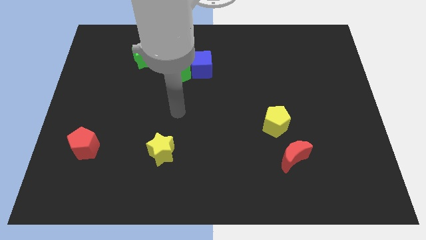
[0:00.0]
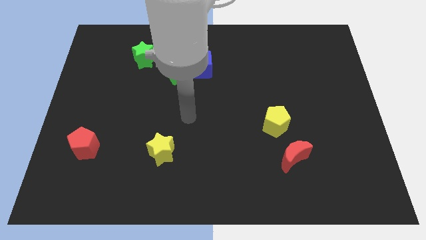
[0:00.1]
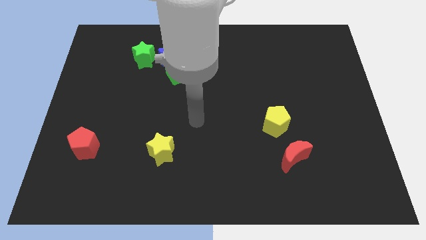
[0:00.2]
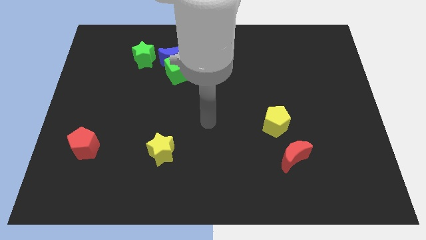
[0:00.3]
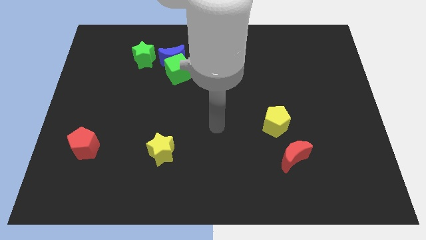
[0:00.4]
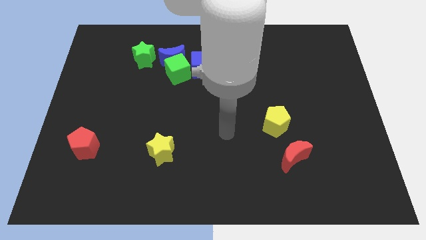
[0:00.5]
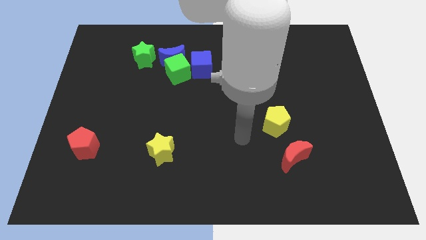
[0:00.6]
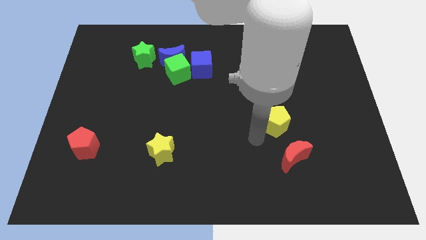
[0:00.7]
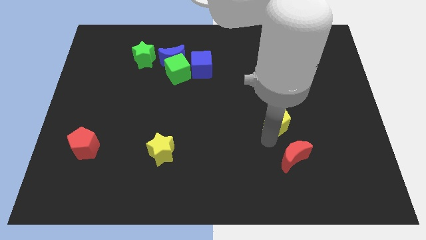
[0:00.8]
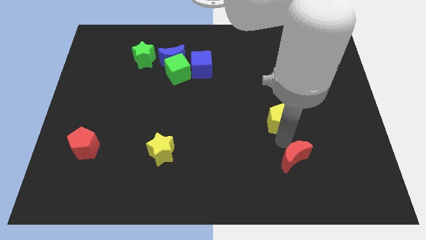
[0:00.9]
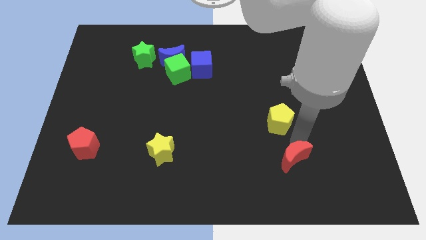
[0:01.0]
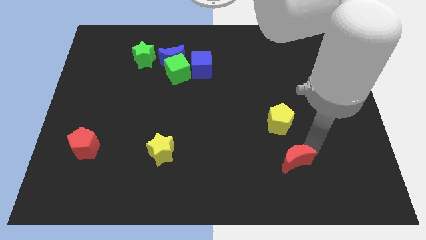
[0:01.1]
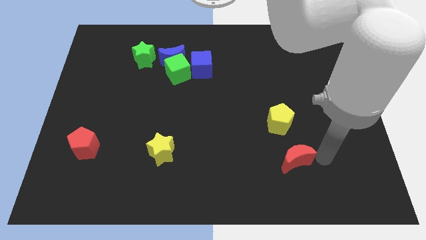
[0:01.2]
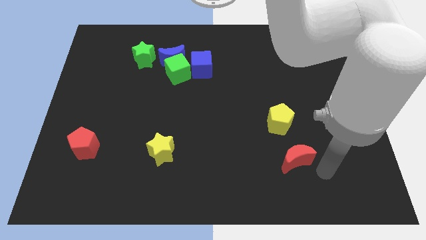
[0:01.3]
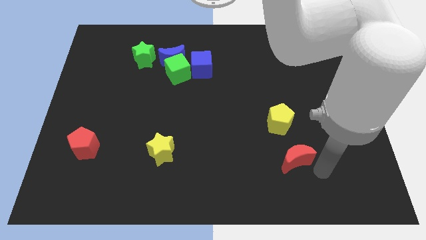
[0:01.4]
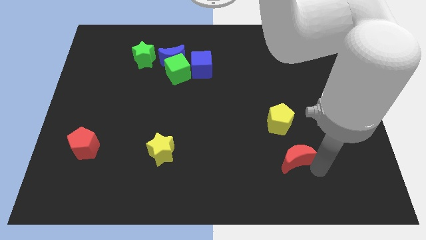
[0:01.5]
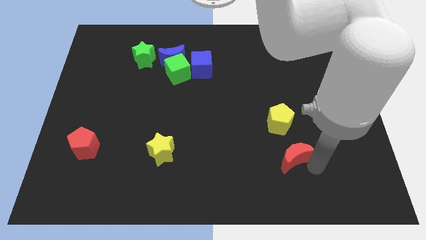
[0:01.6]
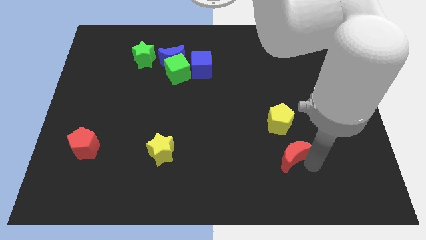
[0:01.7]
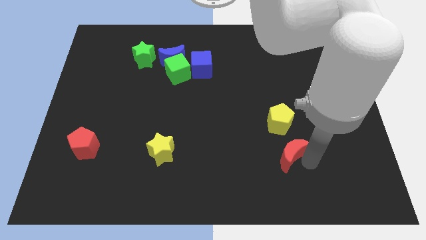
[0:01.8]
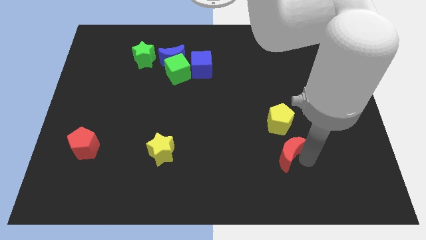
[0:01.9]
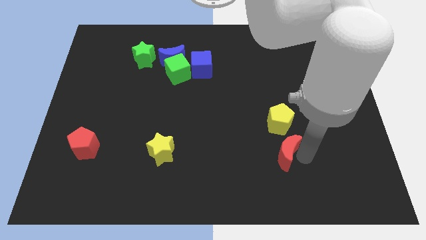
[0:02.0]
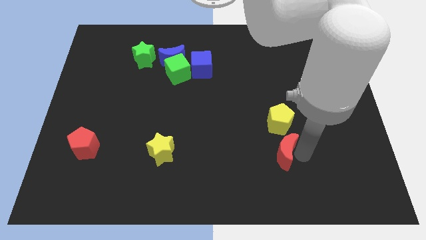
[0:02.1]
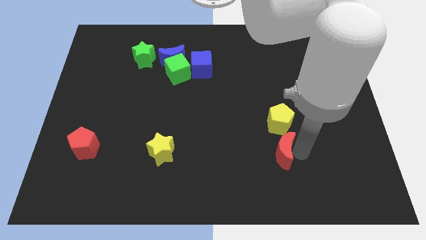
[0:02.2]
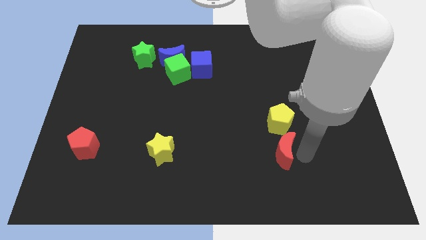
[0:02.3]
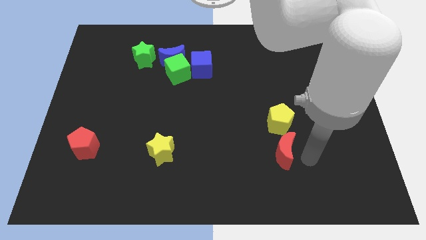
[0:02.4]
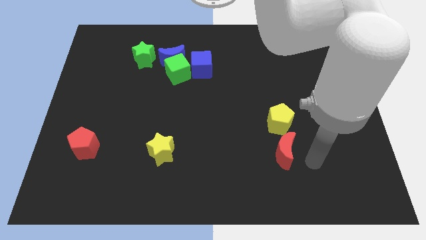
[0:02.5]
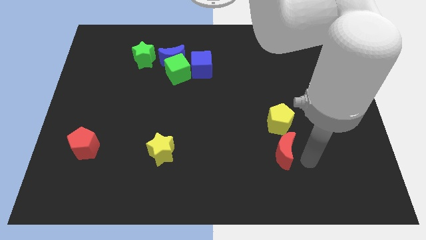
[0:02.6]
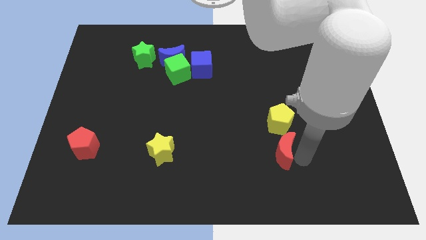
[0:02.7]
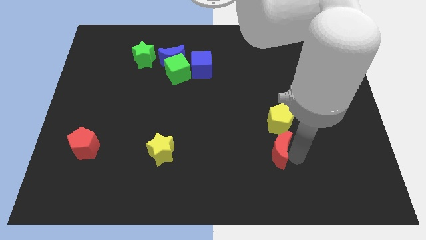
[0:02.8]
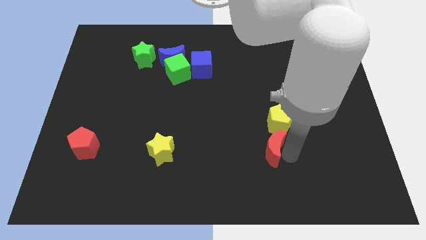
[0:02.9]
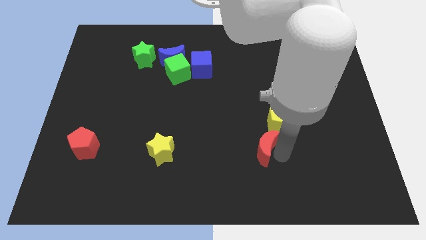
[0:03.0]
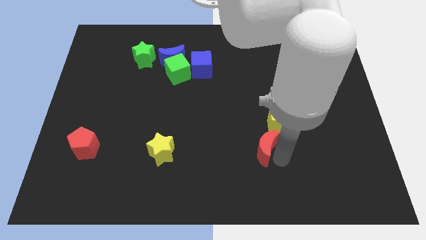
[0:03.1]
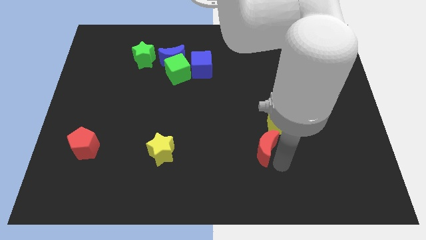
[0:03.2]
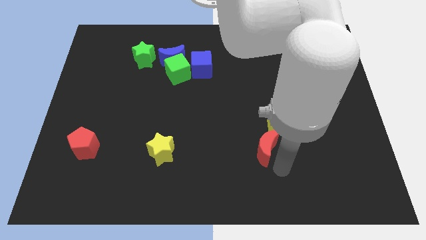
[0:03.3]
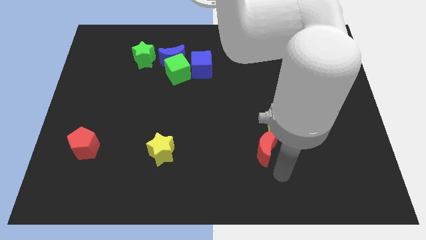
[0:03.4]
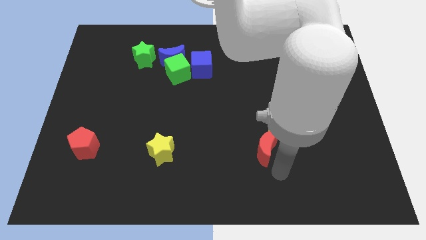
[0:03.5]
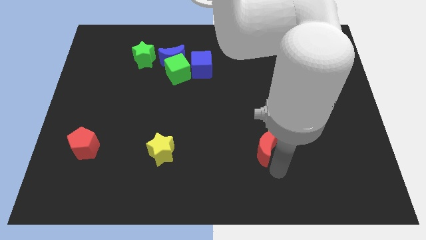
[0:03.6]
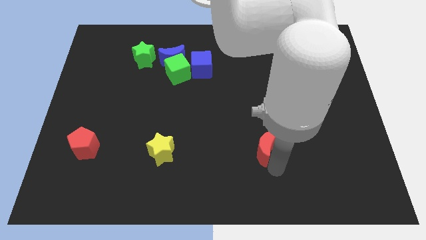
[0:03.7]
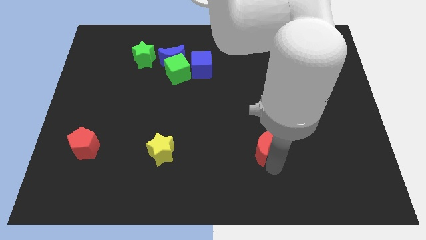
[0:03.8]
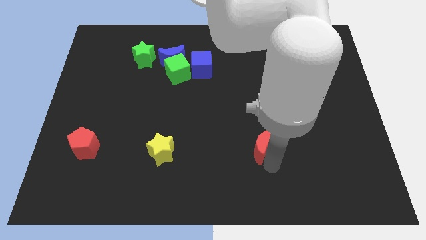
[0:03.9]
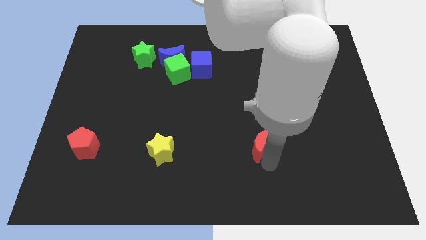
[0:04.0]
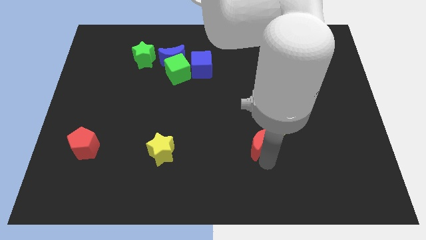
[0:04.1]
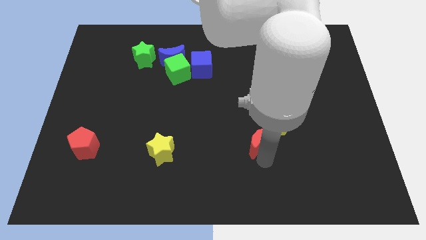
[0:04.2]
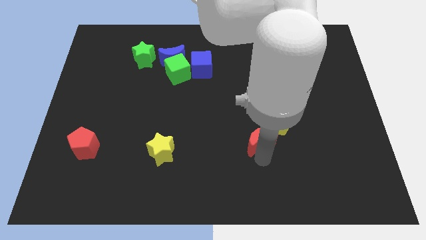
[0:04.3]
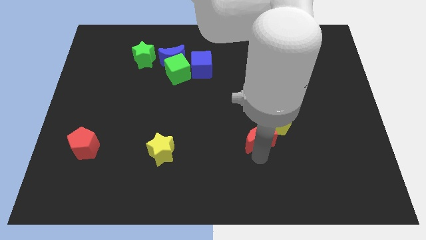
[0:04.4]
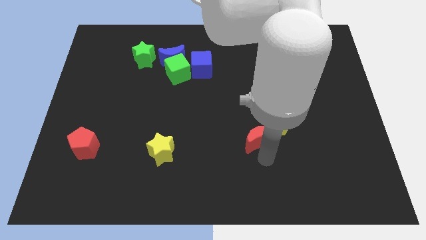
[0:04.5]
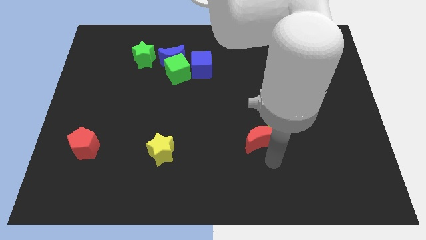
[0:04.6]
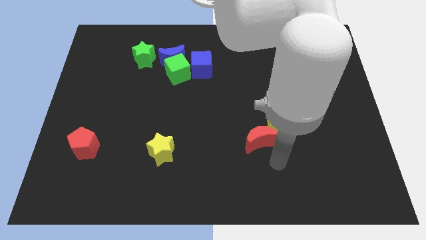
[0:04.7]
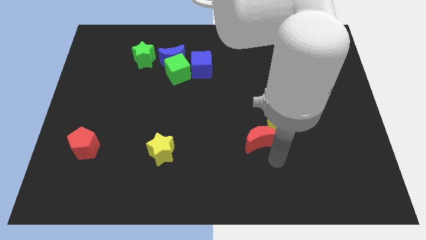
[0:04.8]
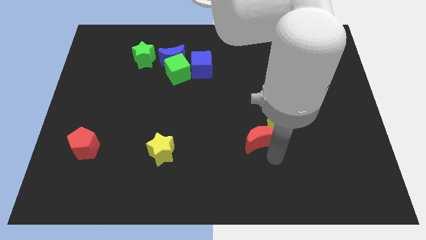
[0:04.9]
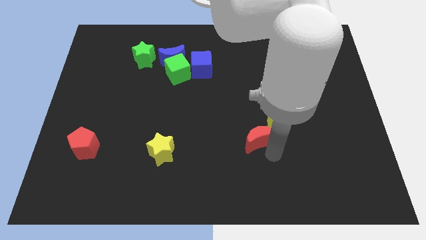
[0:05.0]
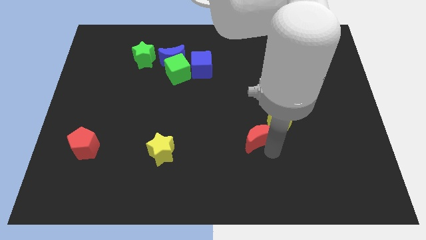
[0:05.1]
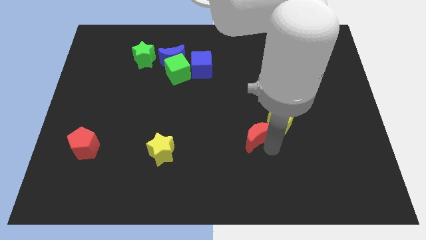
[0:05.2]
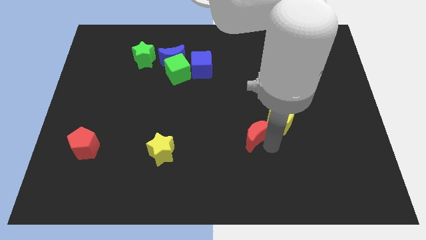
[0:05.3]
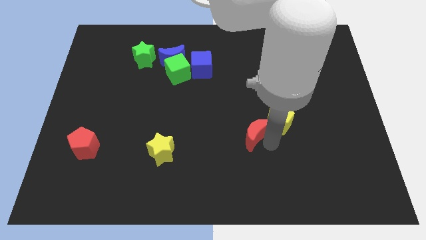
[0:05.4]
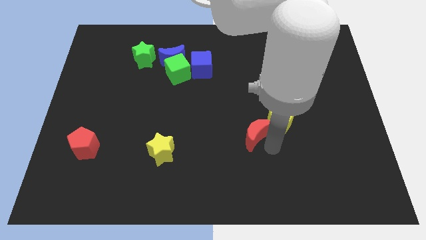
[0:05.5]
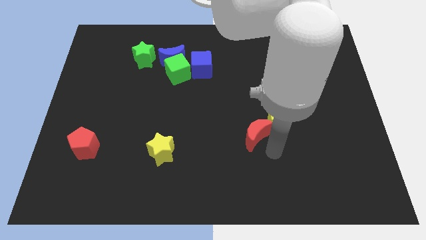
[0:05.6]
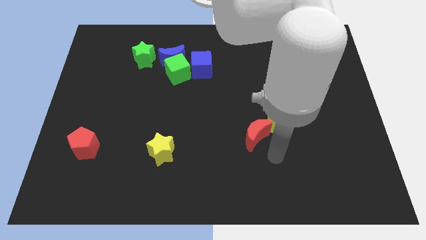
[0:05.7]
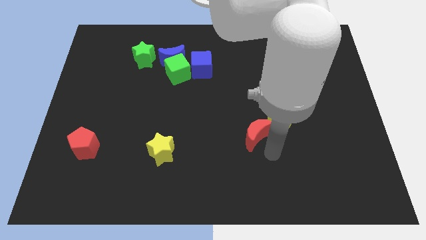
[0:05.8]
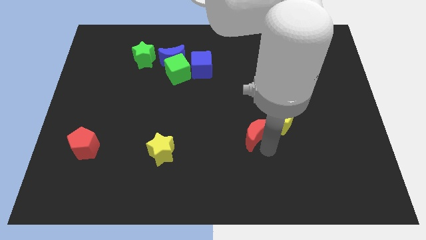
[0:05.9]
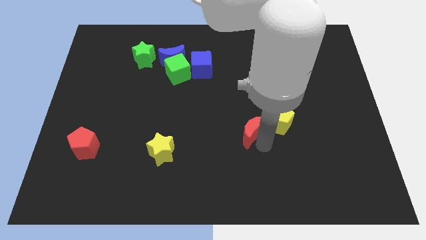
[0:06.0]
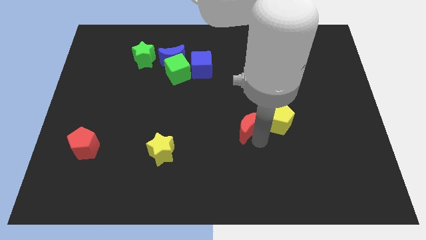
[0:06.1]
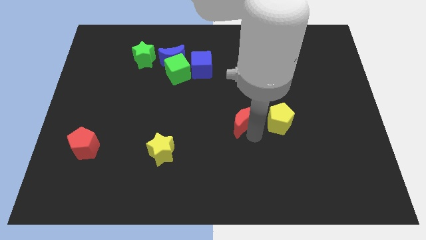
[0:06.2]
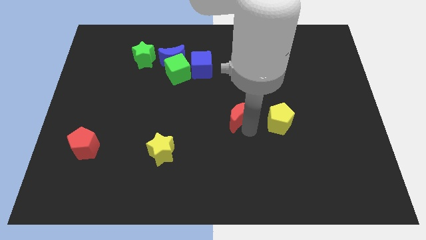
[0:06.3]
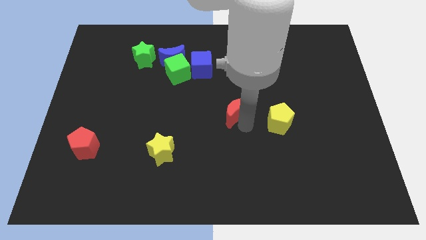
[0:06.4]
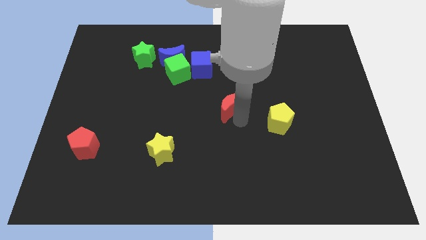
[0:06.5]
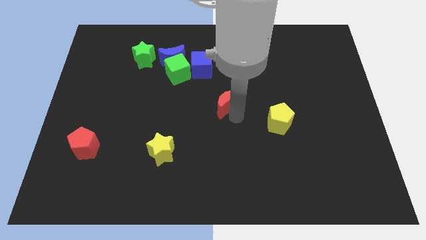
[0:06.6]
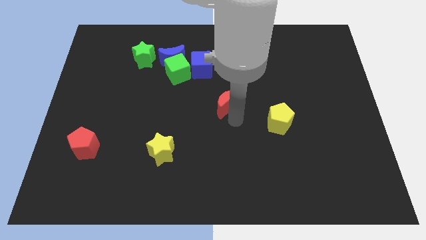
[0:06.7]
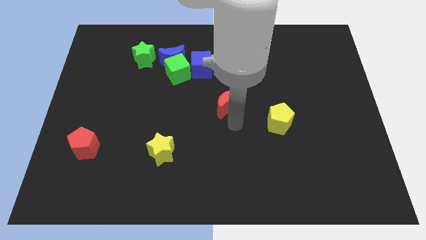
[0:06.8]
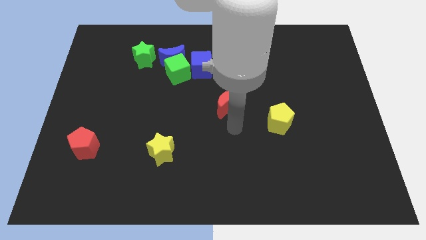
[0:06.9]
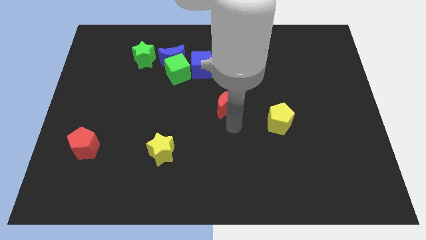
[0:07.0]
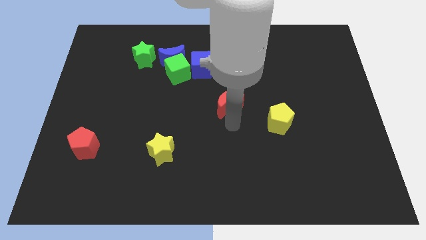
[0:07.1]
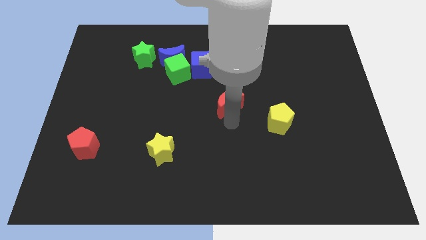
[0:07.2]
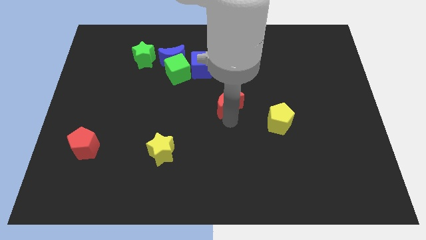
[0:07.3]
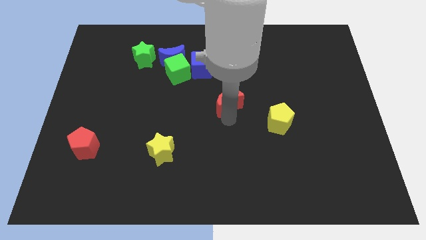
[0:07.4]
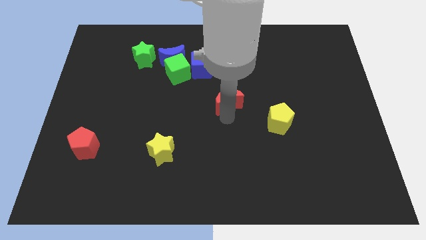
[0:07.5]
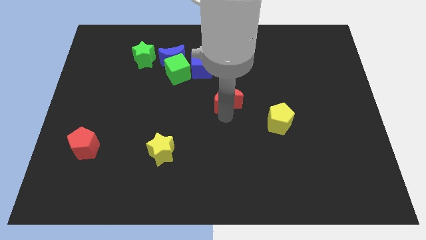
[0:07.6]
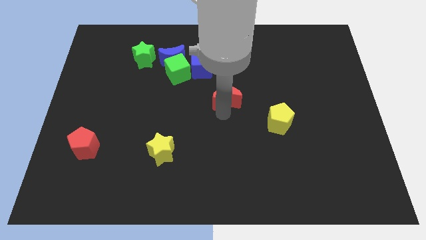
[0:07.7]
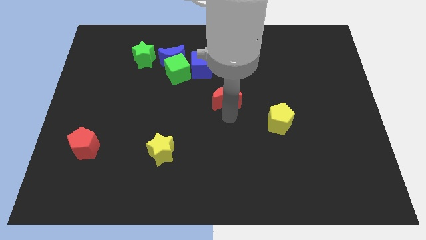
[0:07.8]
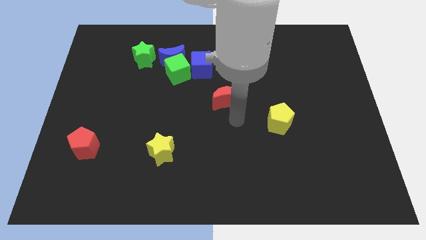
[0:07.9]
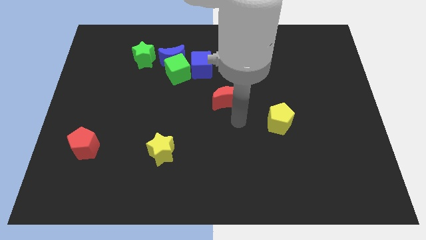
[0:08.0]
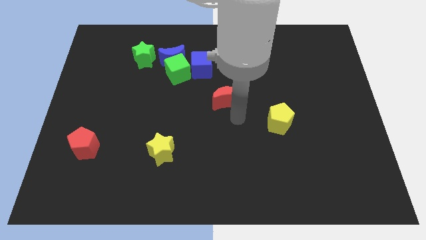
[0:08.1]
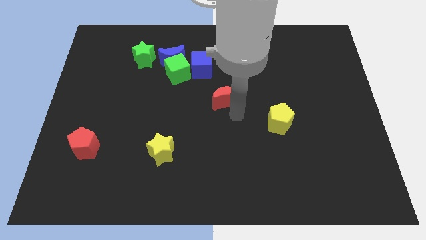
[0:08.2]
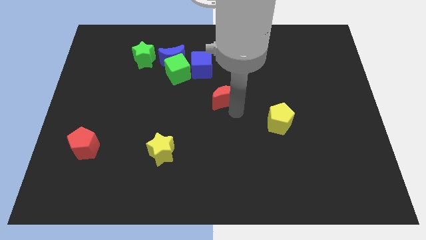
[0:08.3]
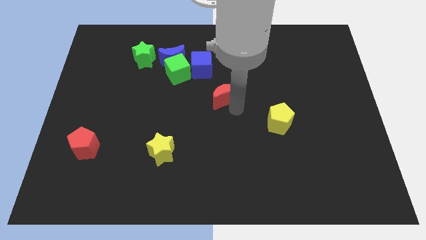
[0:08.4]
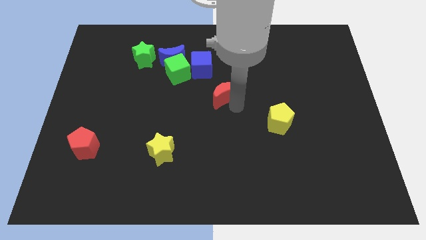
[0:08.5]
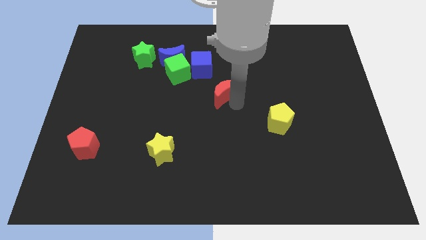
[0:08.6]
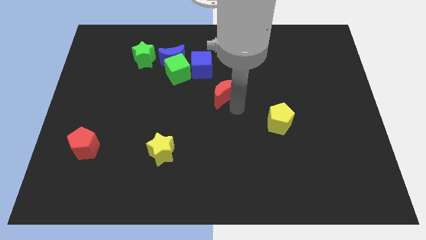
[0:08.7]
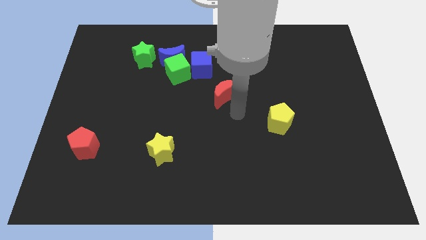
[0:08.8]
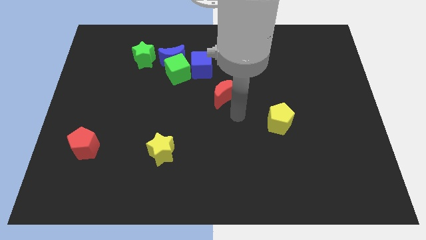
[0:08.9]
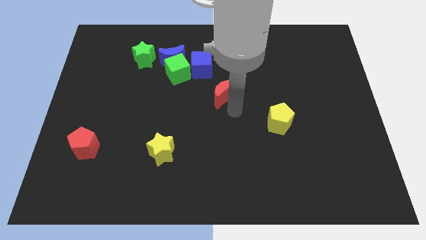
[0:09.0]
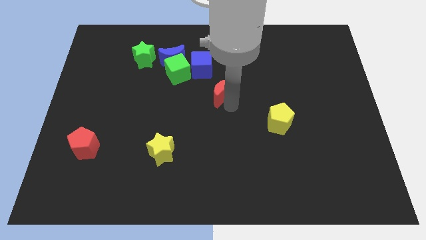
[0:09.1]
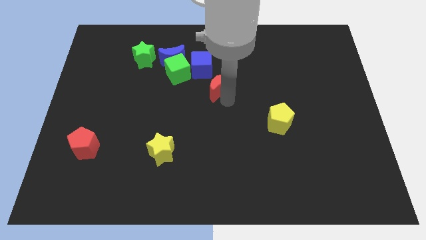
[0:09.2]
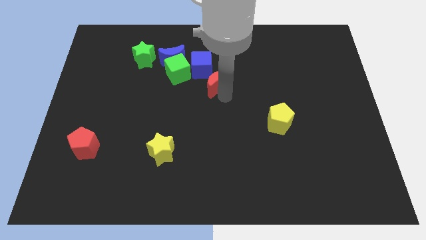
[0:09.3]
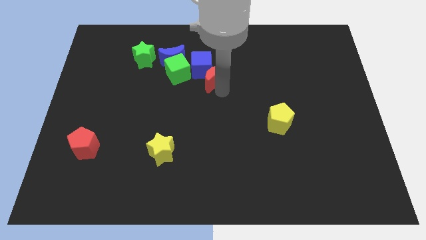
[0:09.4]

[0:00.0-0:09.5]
push the red moon next to the blue cube
